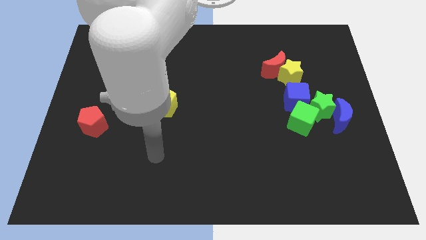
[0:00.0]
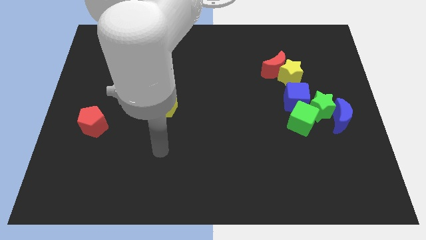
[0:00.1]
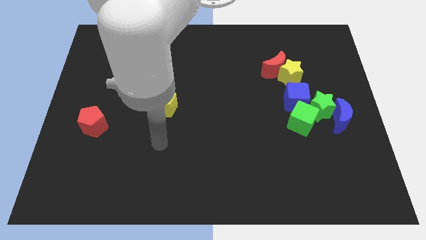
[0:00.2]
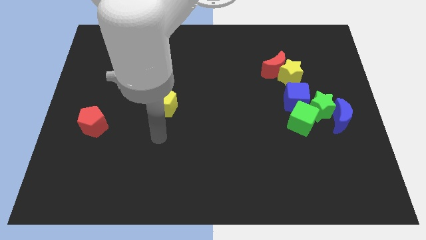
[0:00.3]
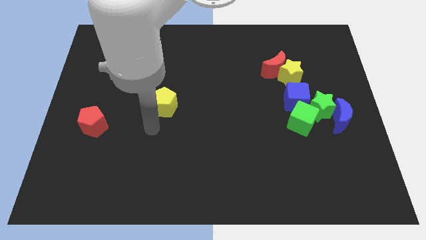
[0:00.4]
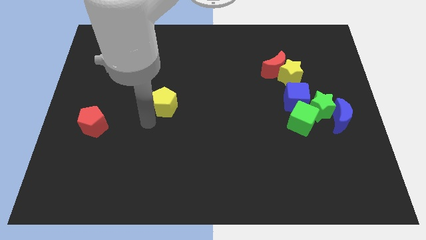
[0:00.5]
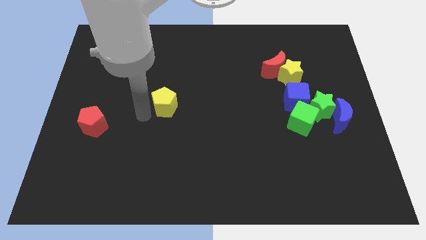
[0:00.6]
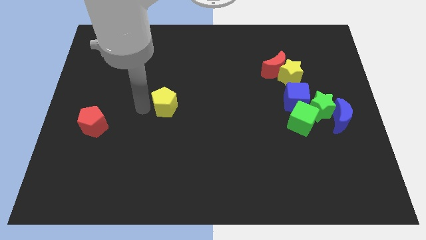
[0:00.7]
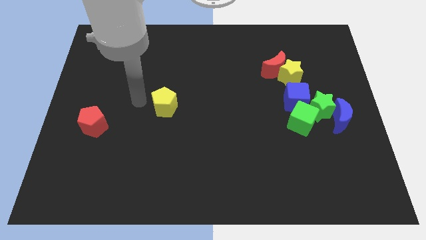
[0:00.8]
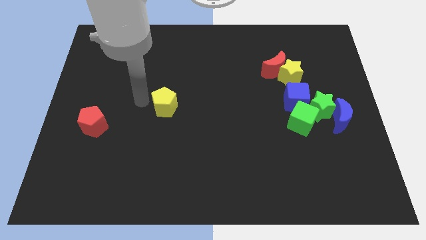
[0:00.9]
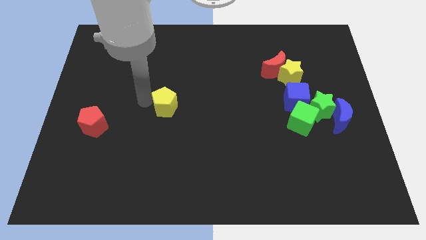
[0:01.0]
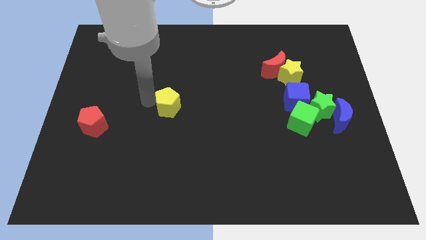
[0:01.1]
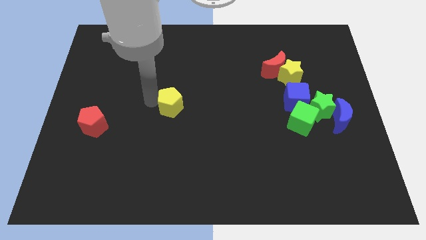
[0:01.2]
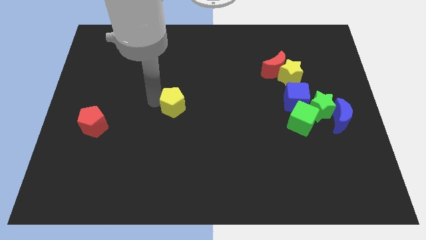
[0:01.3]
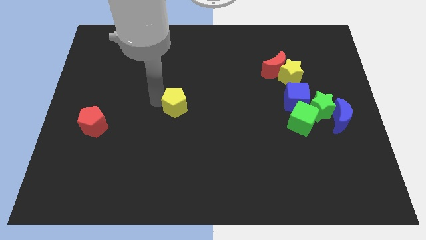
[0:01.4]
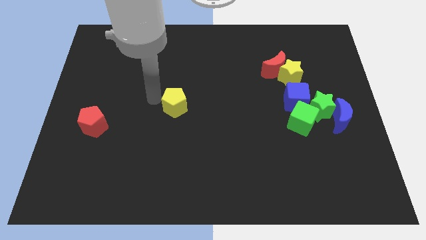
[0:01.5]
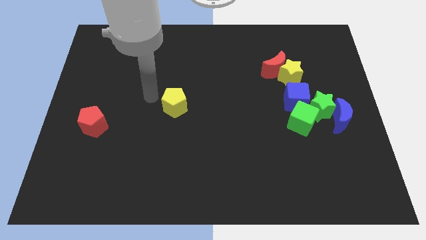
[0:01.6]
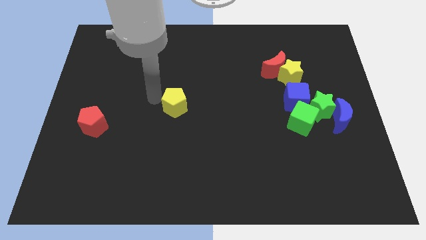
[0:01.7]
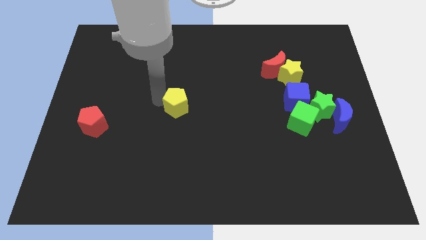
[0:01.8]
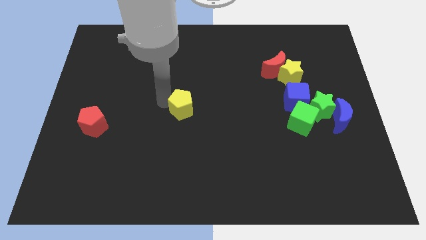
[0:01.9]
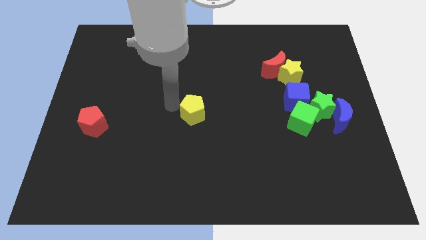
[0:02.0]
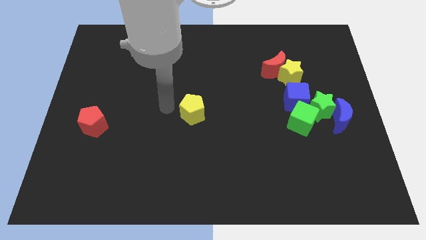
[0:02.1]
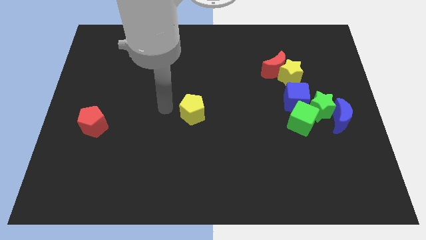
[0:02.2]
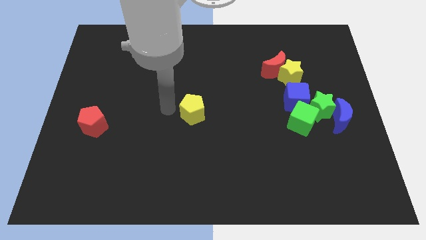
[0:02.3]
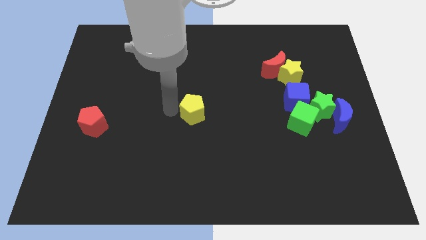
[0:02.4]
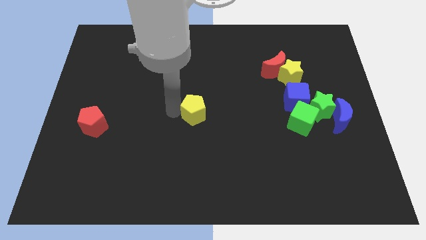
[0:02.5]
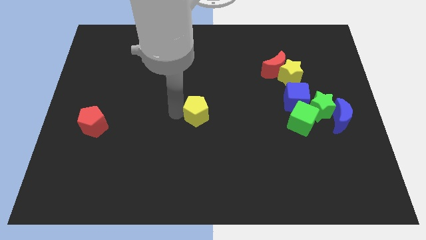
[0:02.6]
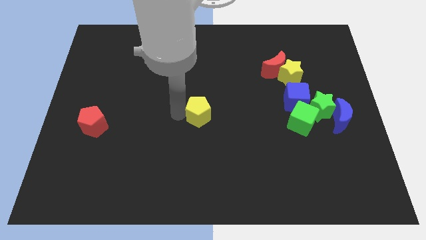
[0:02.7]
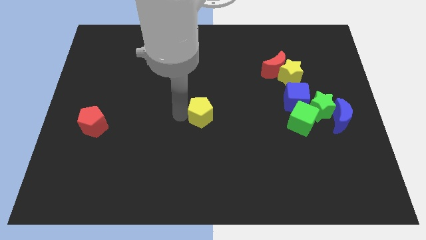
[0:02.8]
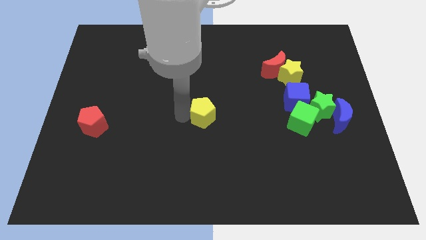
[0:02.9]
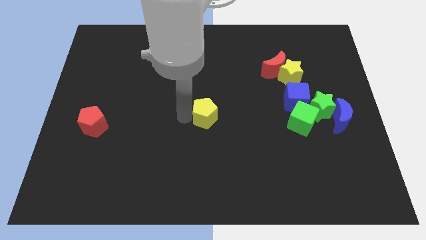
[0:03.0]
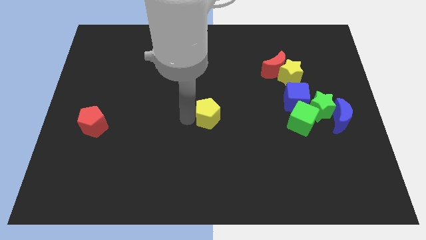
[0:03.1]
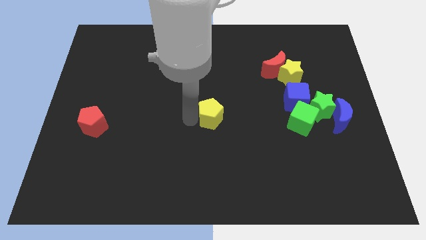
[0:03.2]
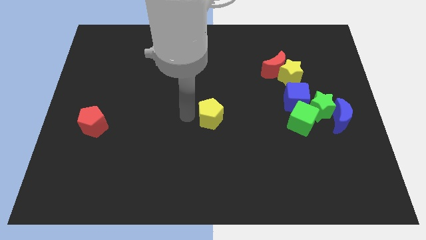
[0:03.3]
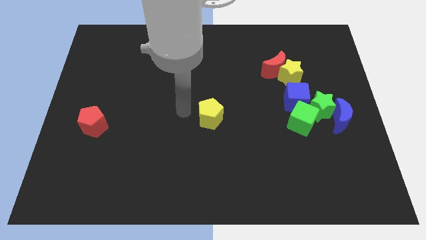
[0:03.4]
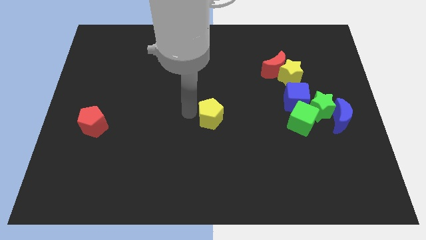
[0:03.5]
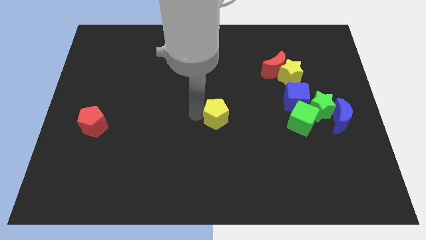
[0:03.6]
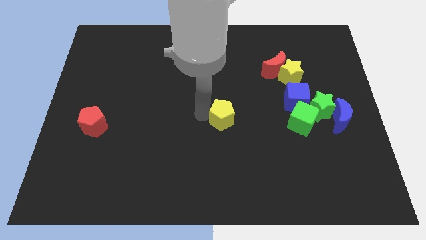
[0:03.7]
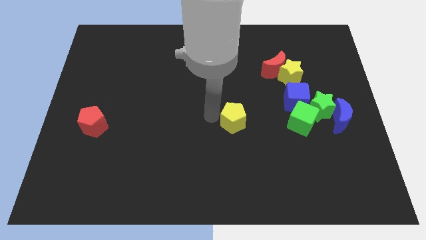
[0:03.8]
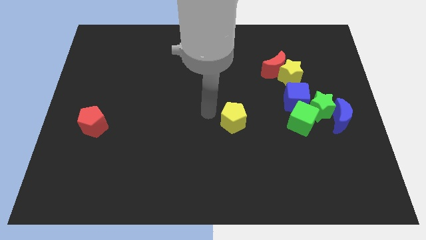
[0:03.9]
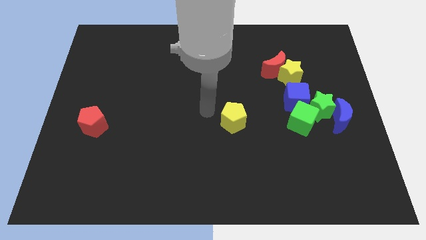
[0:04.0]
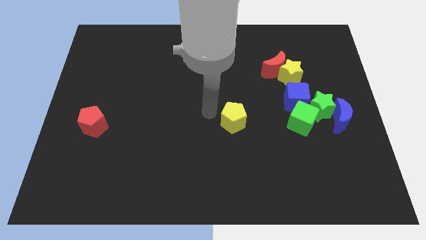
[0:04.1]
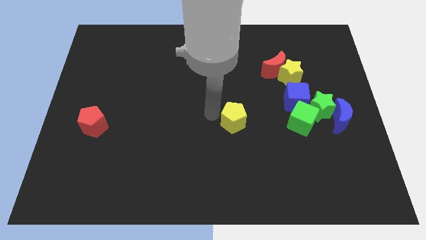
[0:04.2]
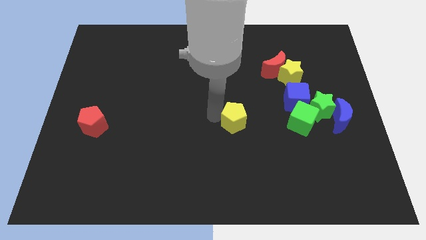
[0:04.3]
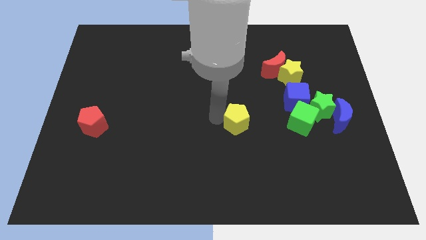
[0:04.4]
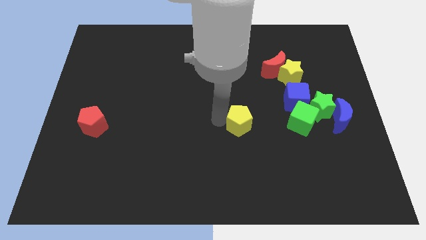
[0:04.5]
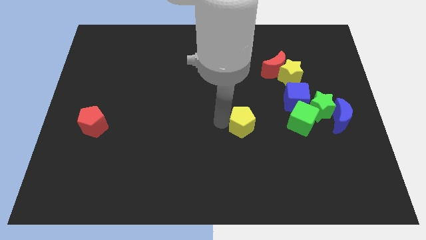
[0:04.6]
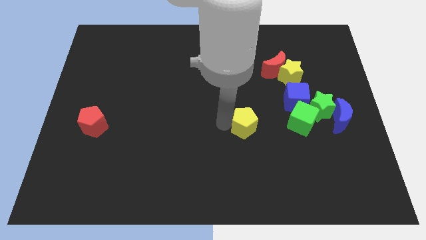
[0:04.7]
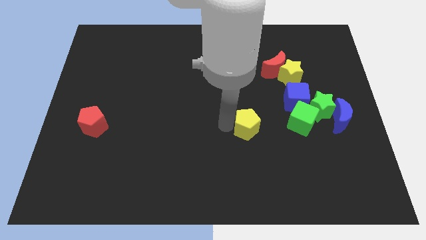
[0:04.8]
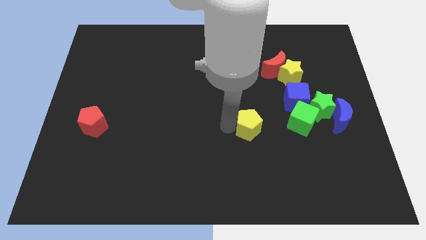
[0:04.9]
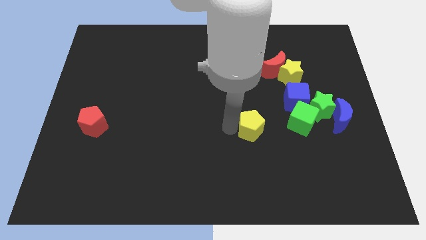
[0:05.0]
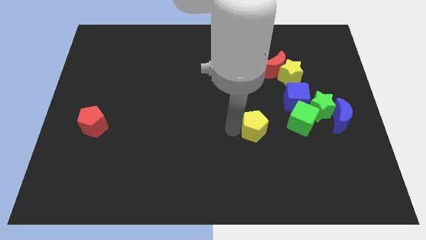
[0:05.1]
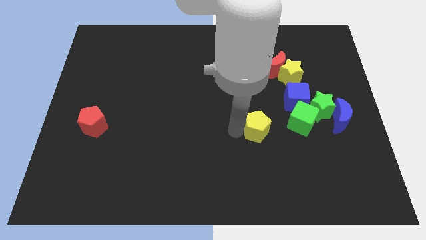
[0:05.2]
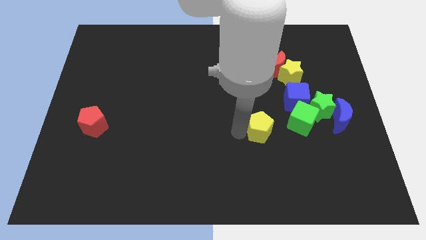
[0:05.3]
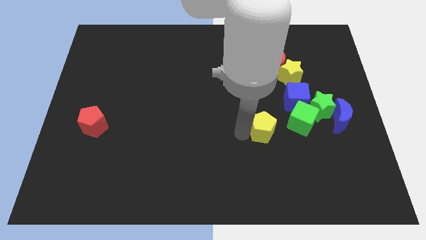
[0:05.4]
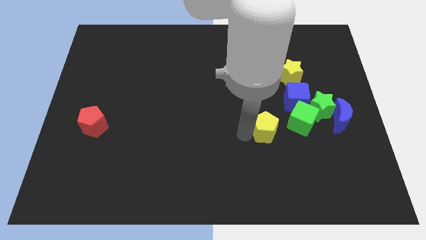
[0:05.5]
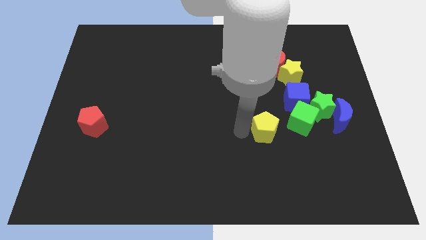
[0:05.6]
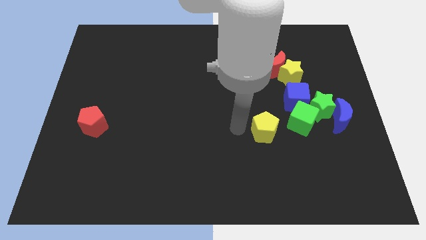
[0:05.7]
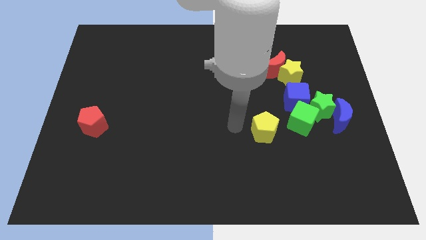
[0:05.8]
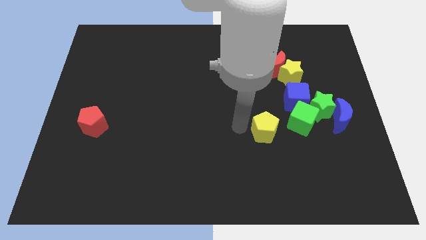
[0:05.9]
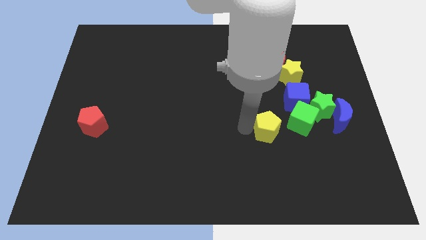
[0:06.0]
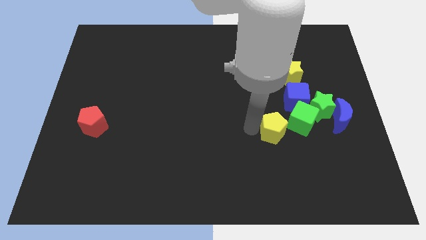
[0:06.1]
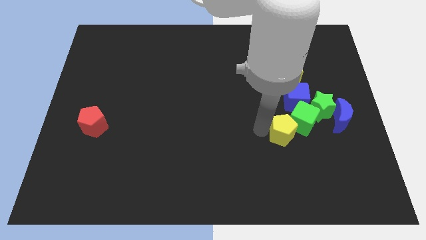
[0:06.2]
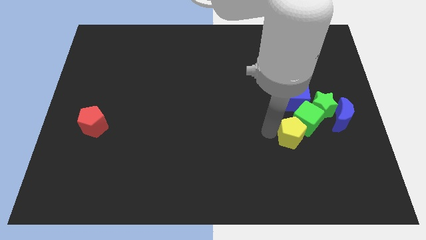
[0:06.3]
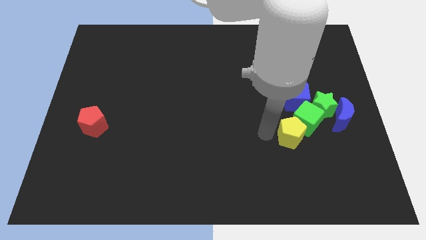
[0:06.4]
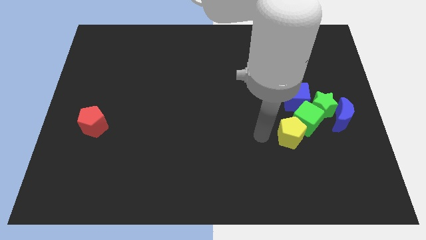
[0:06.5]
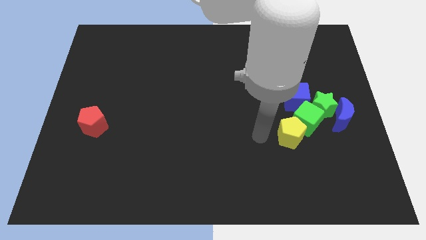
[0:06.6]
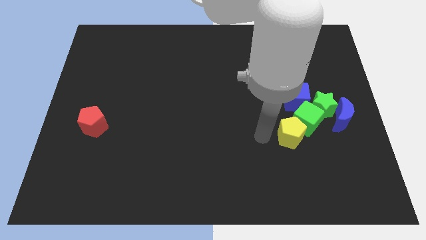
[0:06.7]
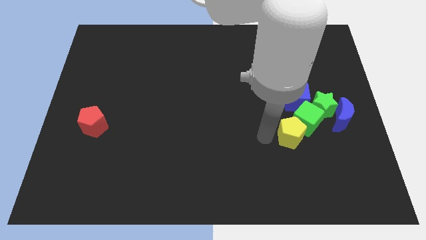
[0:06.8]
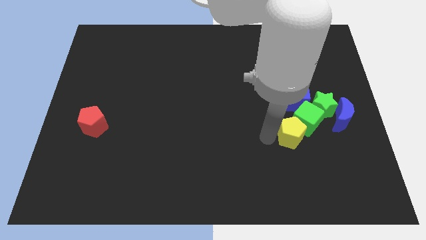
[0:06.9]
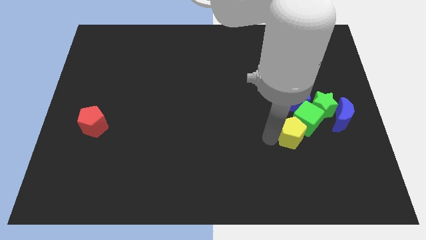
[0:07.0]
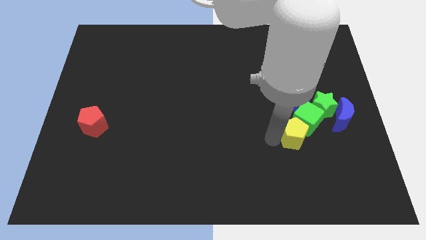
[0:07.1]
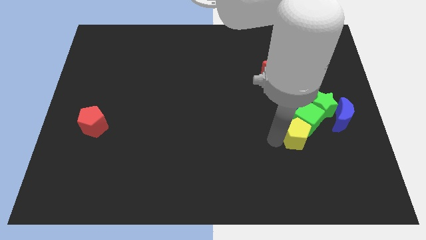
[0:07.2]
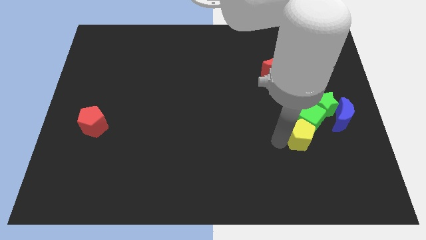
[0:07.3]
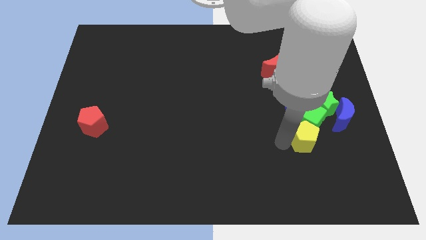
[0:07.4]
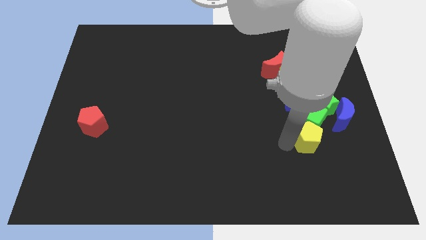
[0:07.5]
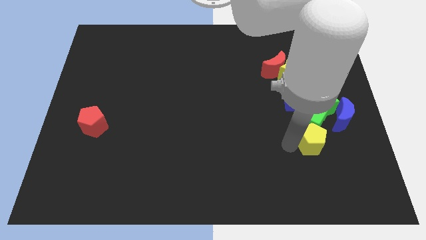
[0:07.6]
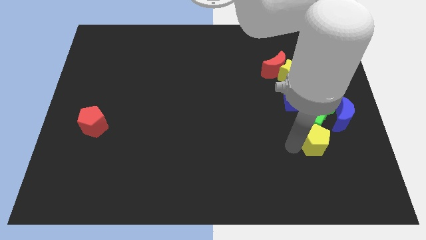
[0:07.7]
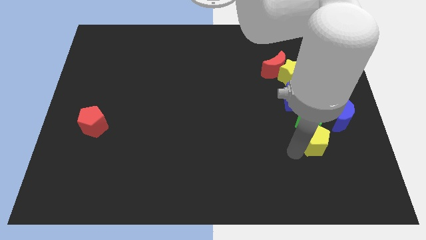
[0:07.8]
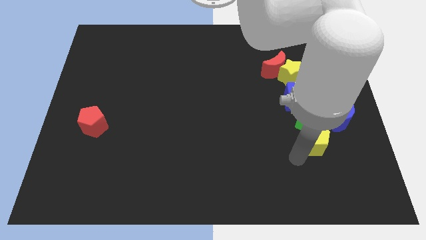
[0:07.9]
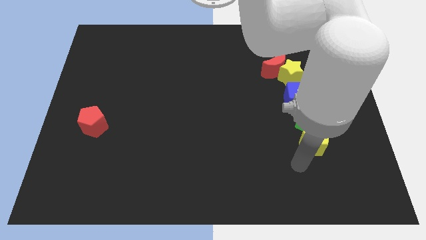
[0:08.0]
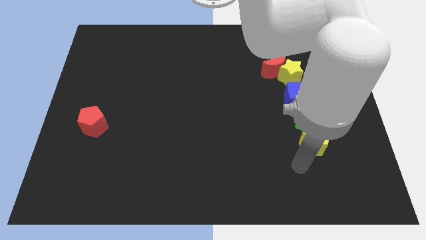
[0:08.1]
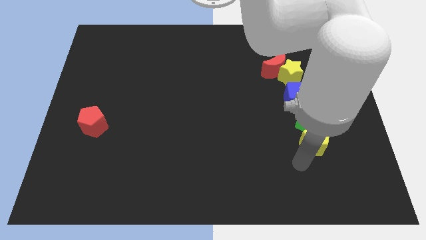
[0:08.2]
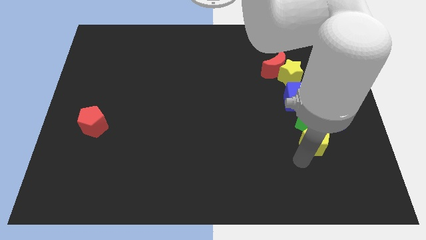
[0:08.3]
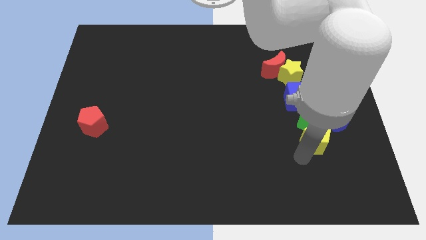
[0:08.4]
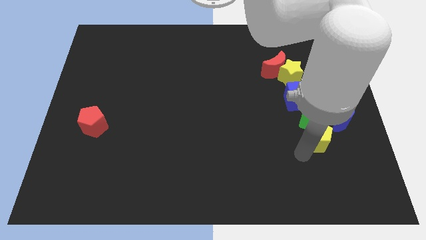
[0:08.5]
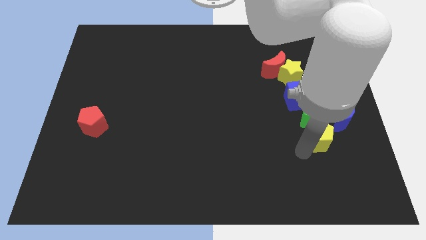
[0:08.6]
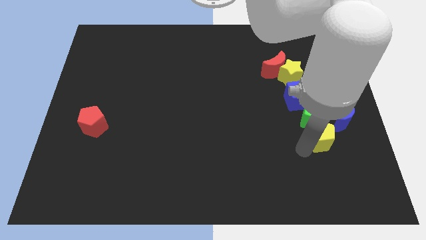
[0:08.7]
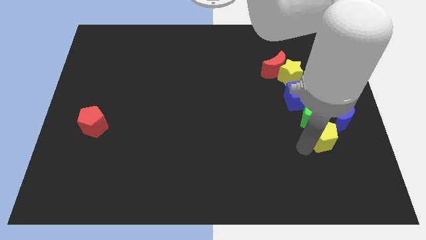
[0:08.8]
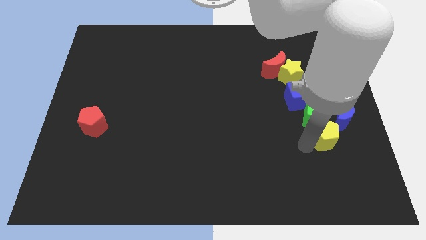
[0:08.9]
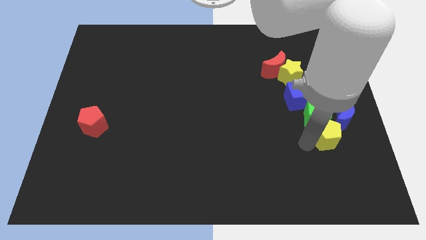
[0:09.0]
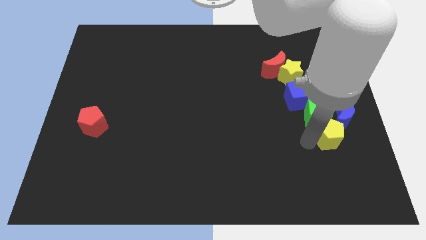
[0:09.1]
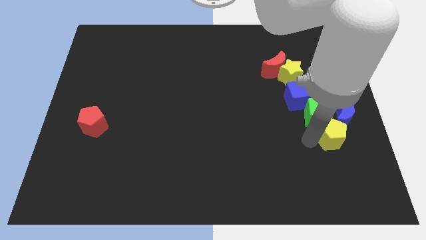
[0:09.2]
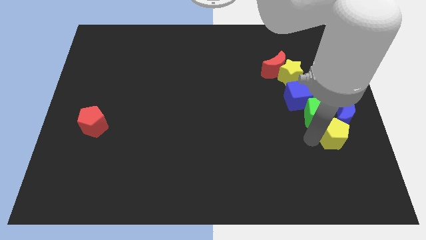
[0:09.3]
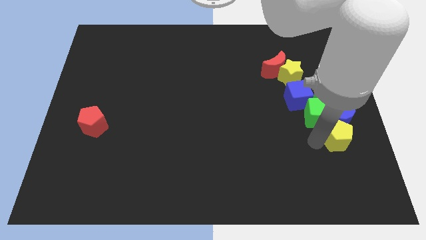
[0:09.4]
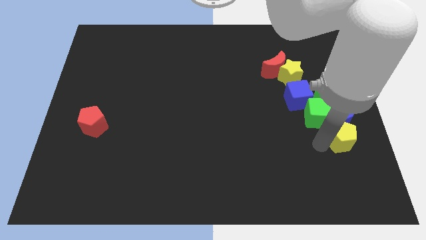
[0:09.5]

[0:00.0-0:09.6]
slide the yellow pentagon to the blue moon
